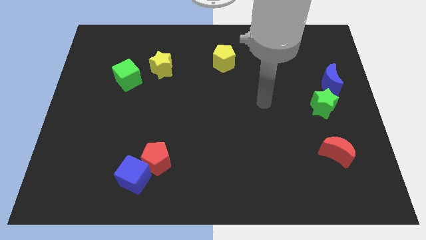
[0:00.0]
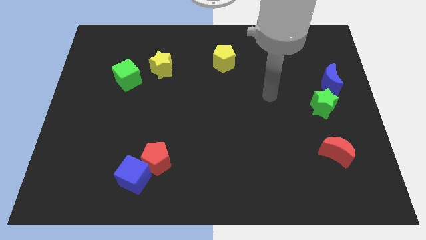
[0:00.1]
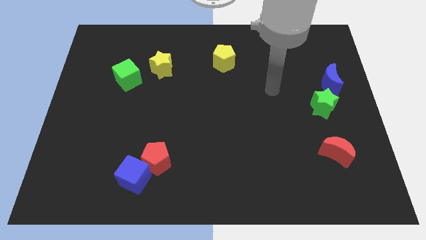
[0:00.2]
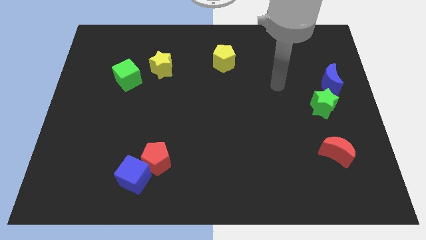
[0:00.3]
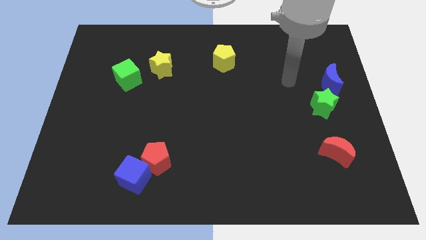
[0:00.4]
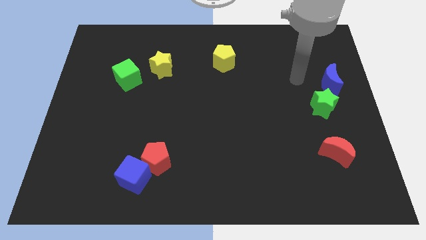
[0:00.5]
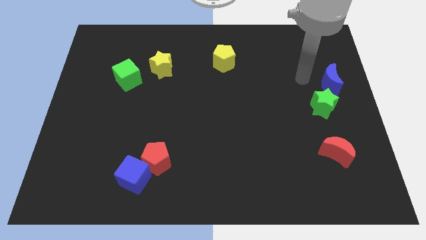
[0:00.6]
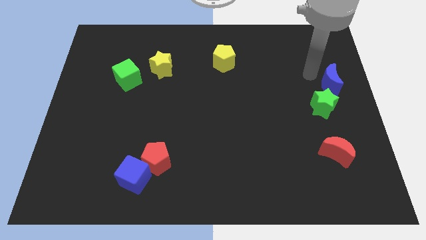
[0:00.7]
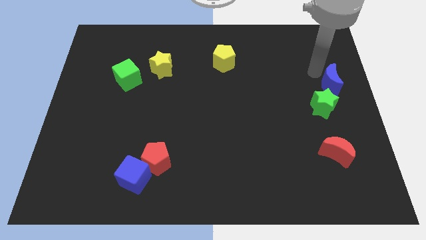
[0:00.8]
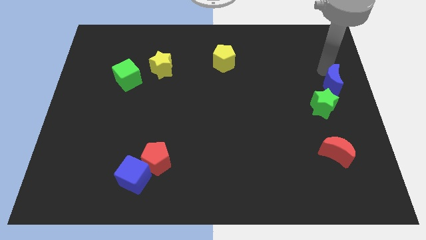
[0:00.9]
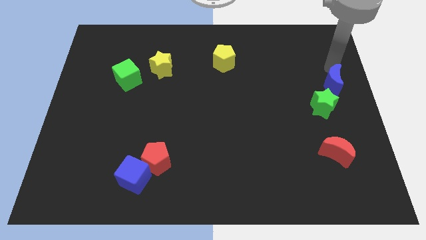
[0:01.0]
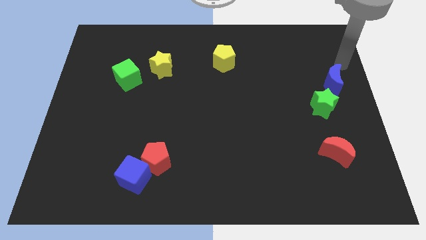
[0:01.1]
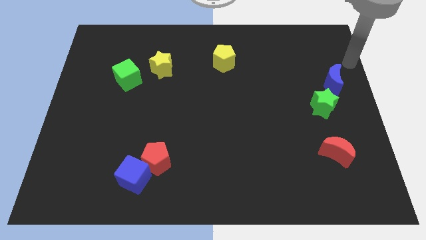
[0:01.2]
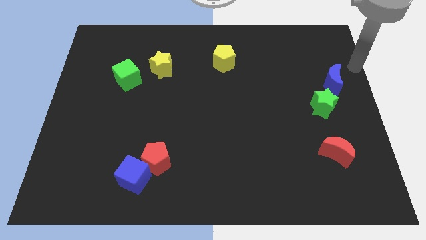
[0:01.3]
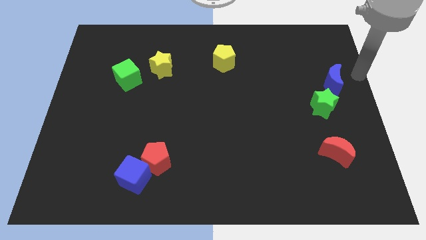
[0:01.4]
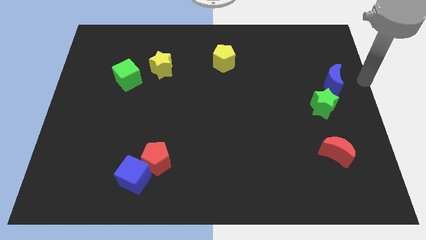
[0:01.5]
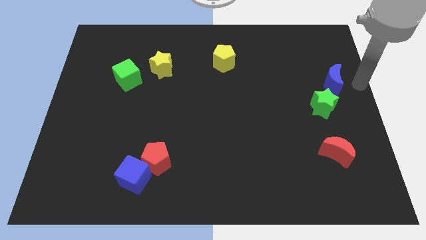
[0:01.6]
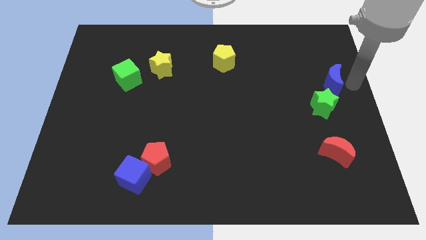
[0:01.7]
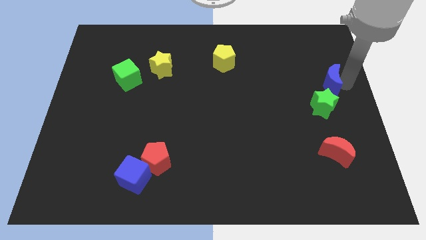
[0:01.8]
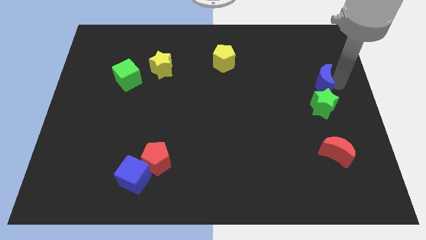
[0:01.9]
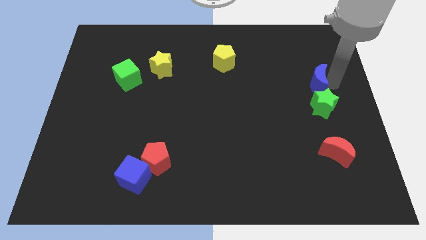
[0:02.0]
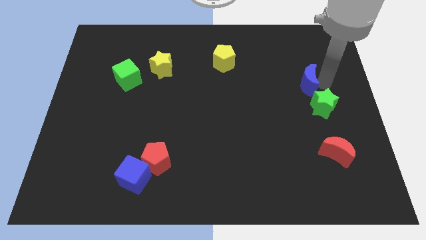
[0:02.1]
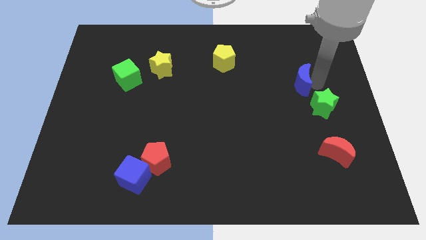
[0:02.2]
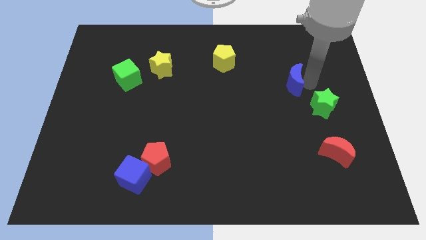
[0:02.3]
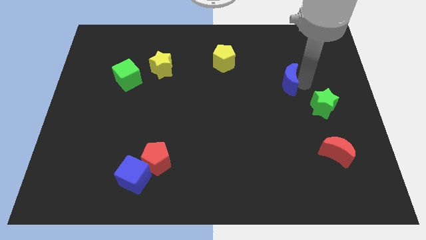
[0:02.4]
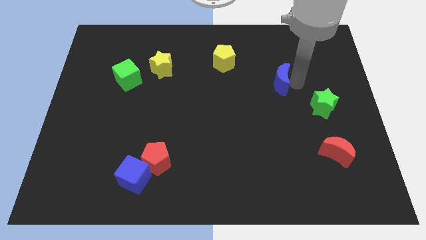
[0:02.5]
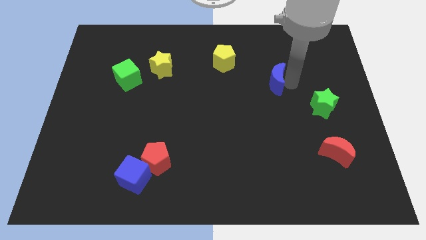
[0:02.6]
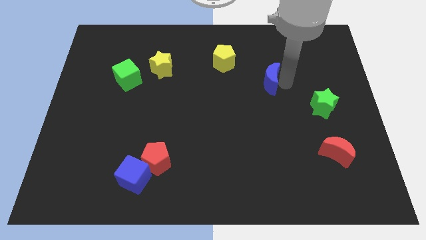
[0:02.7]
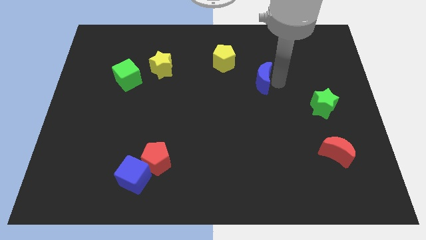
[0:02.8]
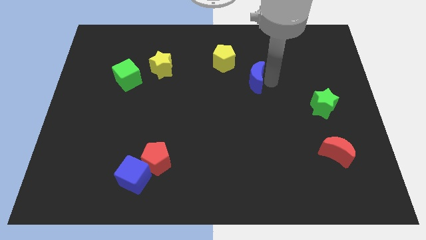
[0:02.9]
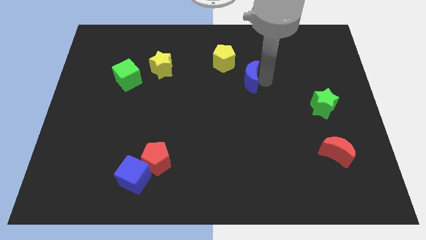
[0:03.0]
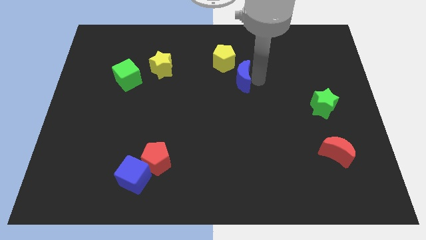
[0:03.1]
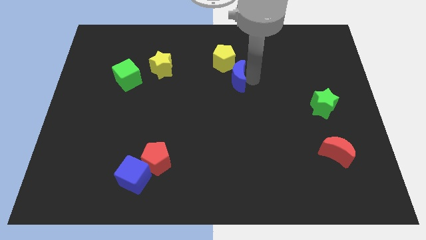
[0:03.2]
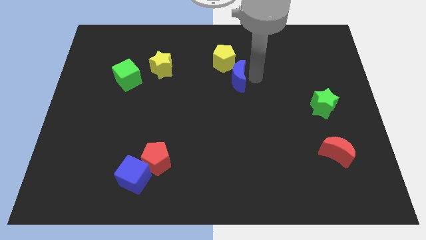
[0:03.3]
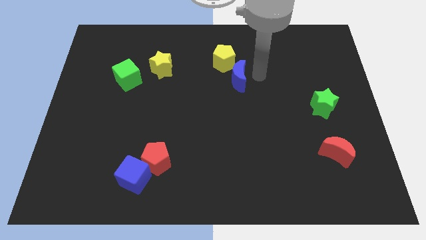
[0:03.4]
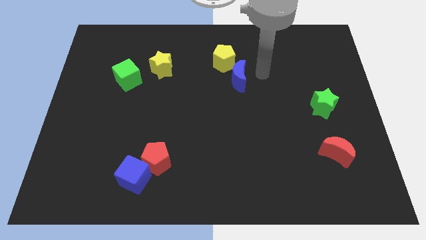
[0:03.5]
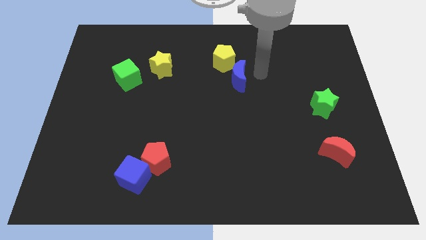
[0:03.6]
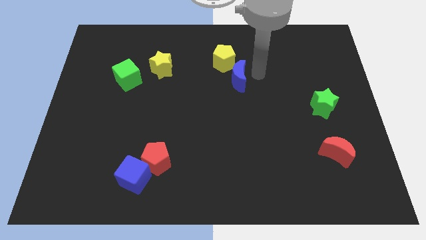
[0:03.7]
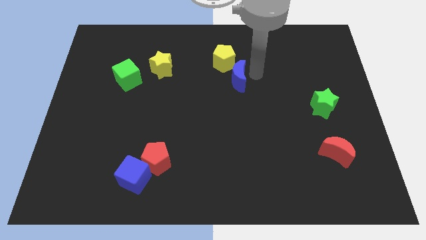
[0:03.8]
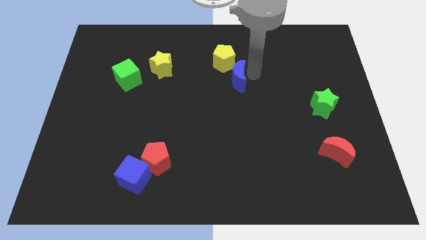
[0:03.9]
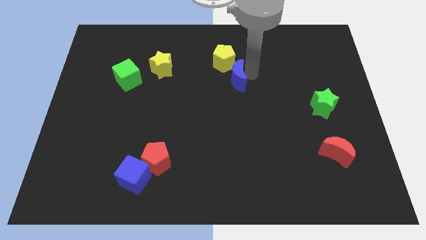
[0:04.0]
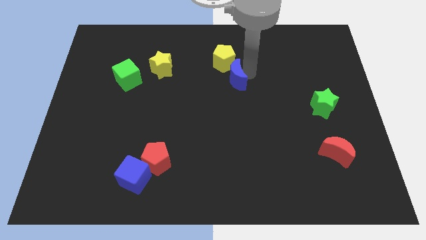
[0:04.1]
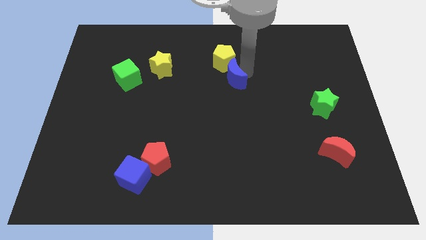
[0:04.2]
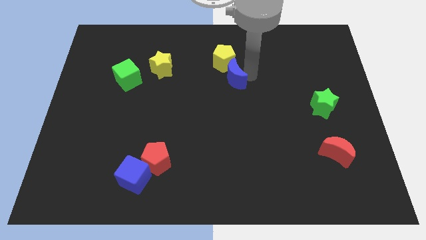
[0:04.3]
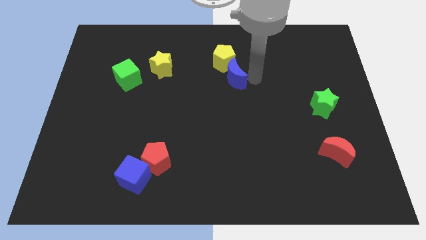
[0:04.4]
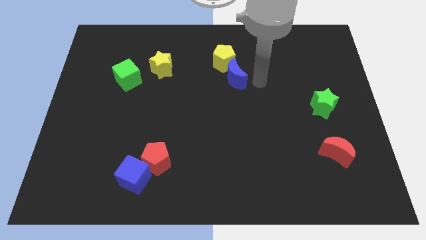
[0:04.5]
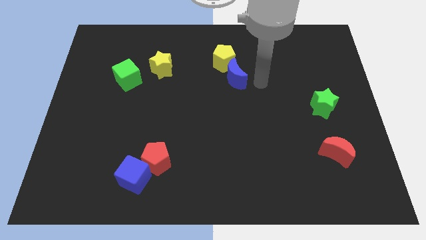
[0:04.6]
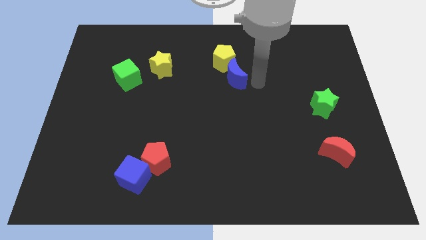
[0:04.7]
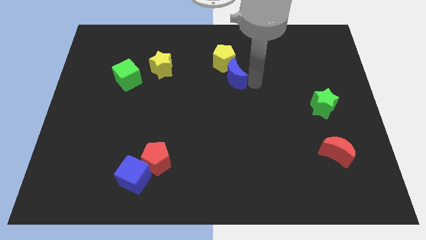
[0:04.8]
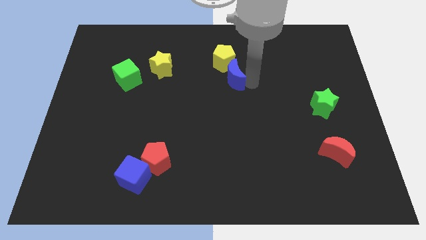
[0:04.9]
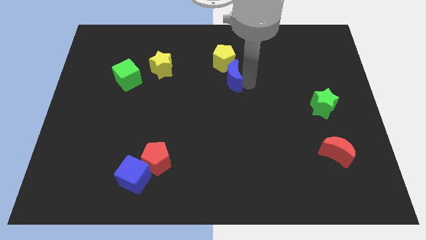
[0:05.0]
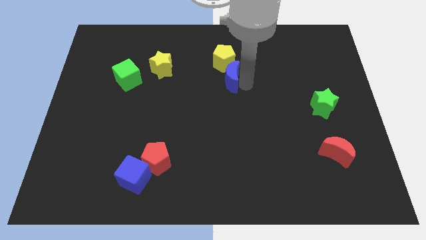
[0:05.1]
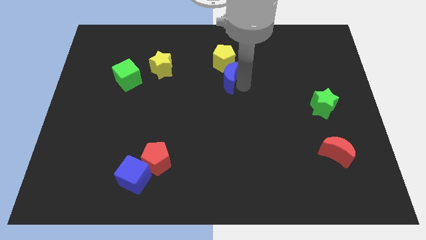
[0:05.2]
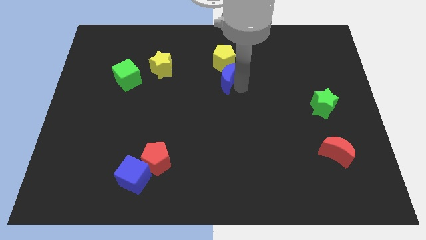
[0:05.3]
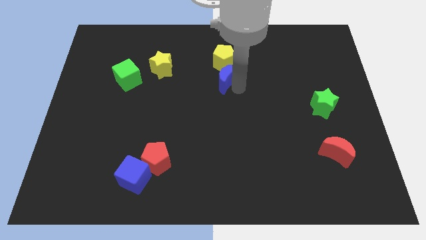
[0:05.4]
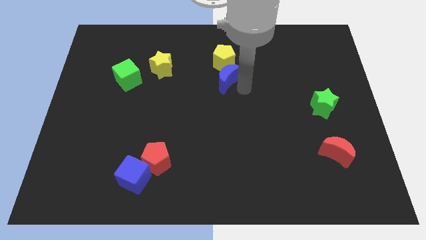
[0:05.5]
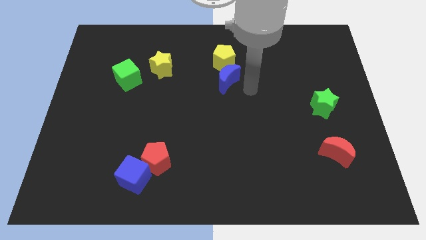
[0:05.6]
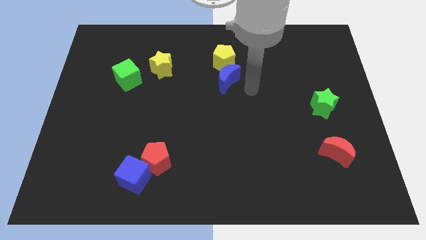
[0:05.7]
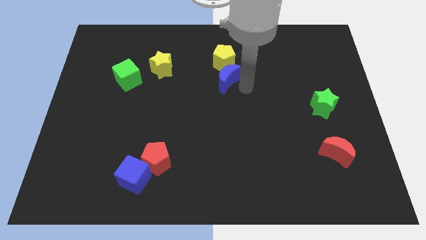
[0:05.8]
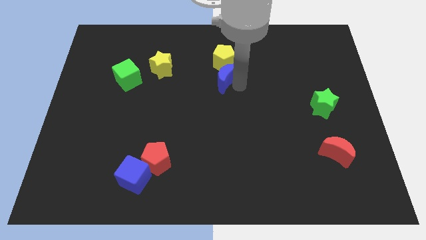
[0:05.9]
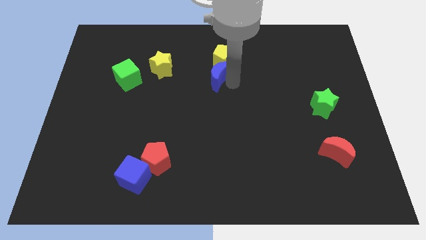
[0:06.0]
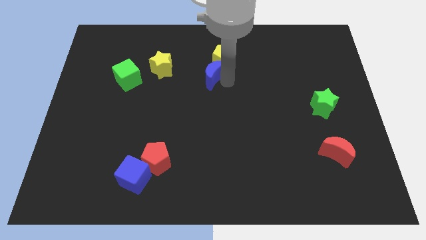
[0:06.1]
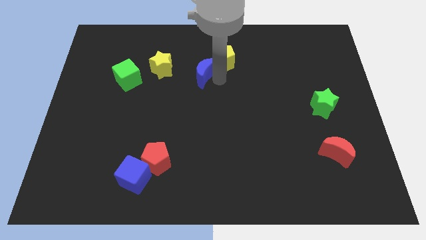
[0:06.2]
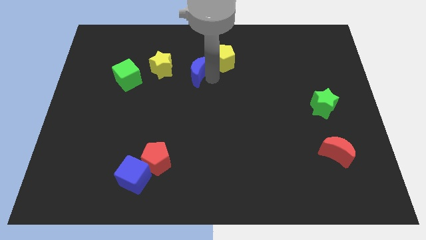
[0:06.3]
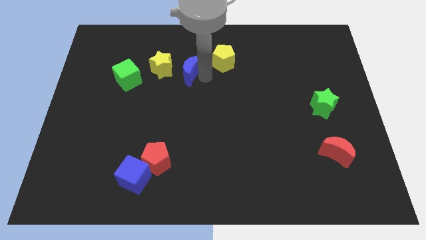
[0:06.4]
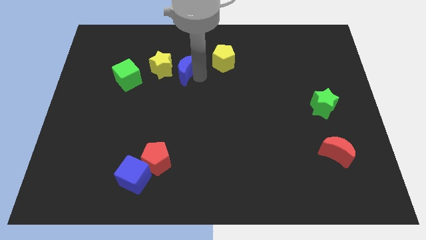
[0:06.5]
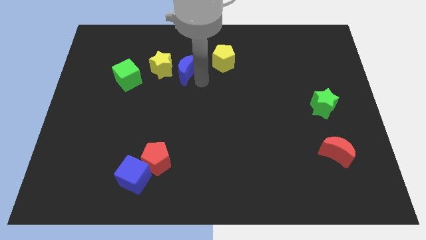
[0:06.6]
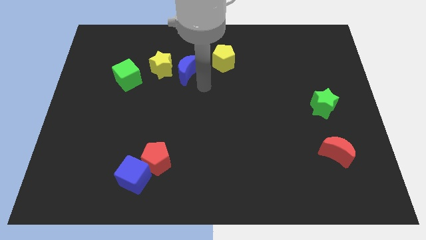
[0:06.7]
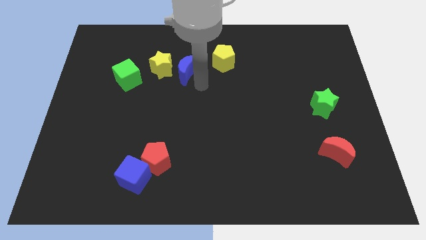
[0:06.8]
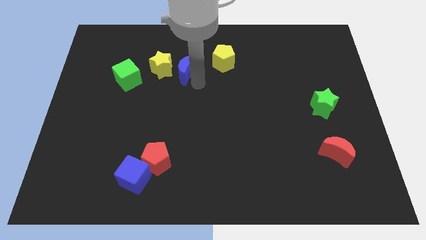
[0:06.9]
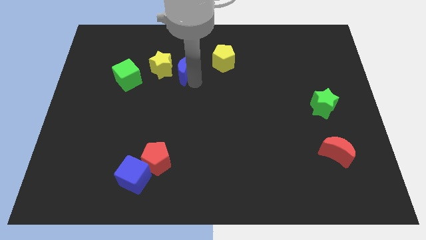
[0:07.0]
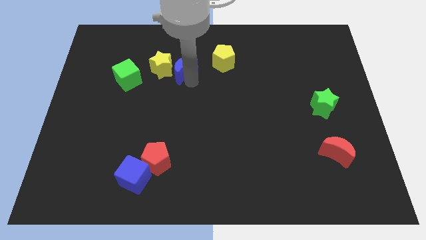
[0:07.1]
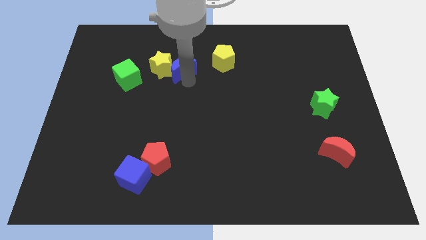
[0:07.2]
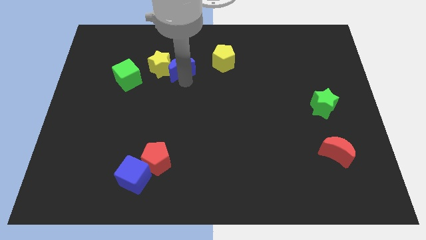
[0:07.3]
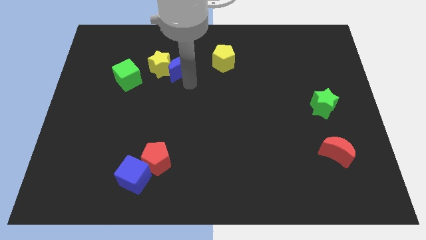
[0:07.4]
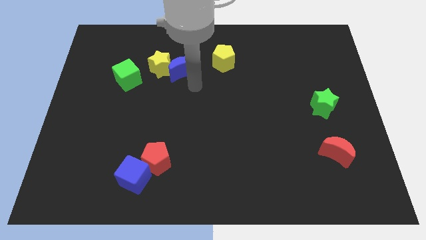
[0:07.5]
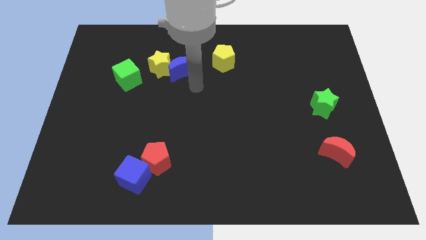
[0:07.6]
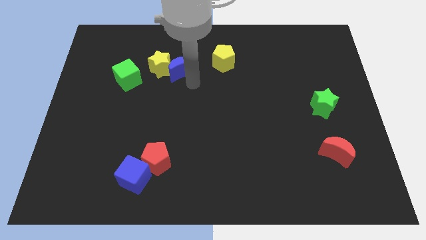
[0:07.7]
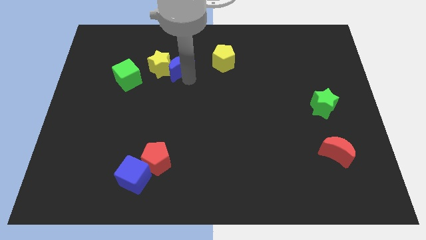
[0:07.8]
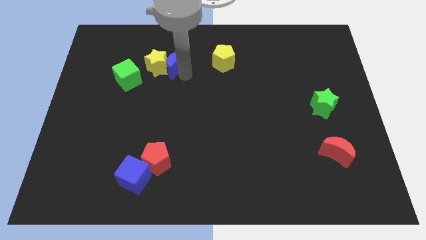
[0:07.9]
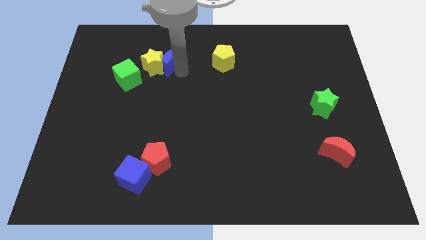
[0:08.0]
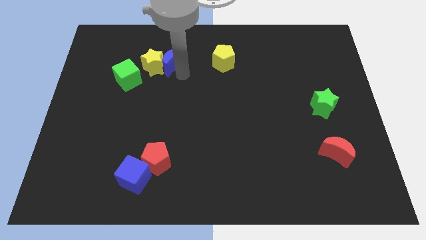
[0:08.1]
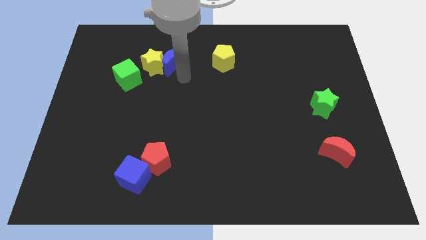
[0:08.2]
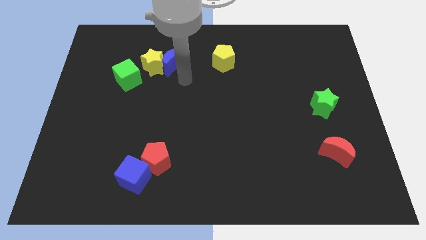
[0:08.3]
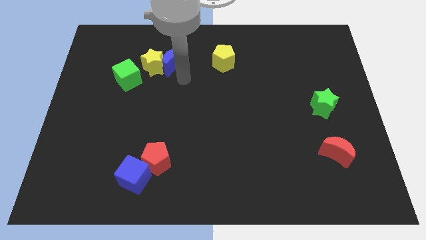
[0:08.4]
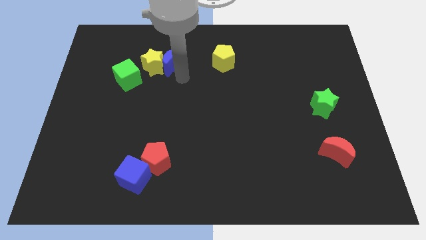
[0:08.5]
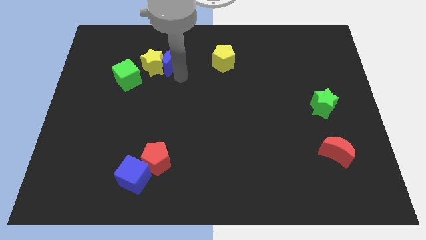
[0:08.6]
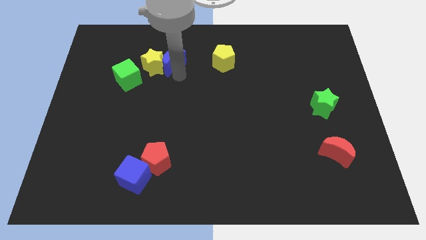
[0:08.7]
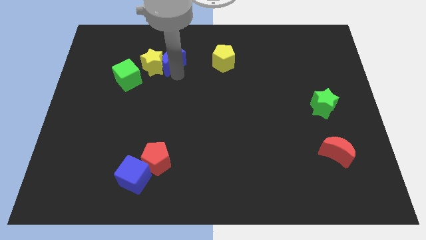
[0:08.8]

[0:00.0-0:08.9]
slide the blue moon to the top right side of the green cube
